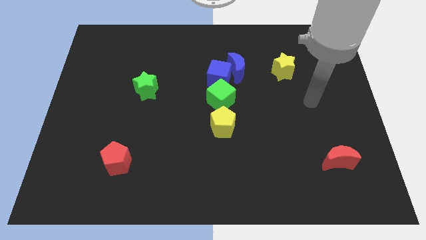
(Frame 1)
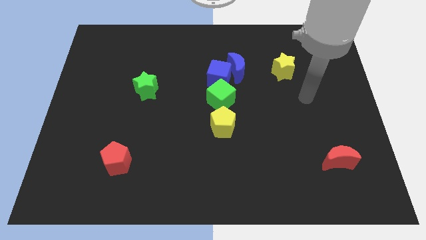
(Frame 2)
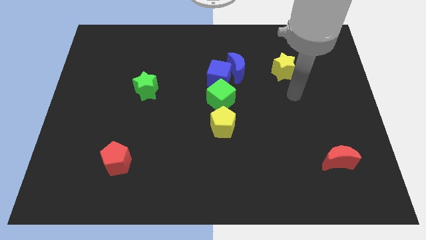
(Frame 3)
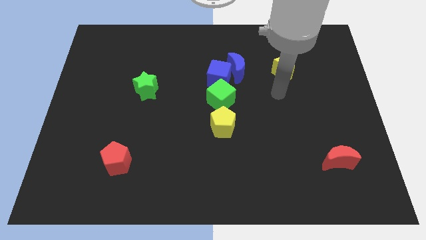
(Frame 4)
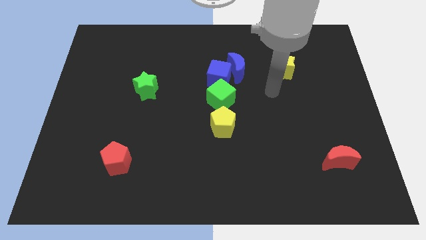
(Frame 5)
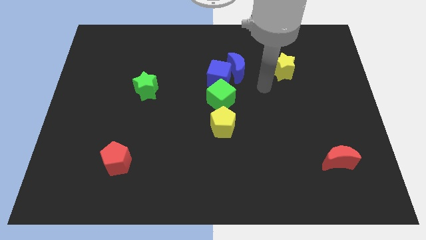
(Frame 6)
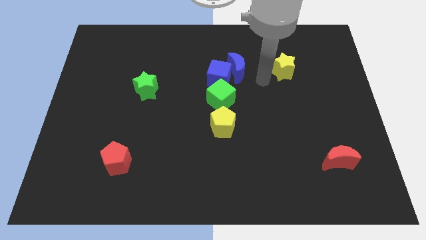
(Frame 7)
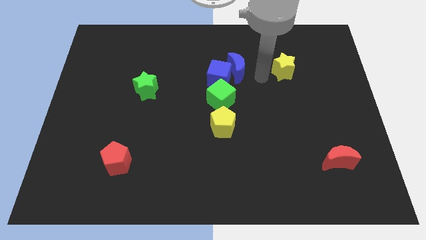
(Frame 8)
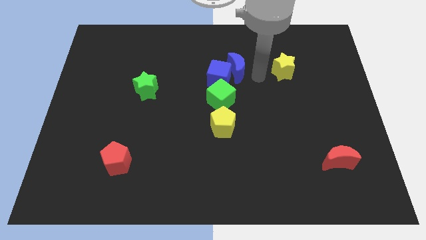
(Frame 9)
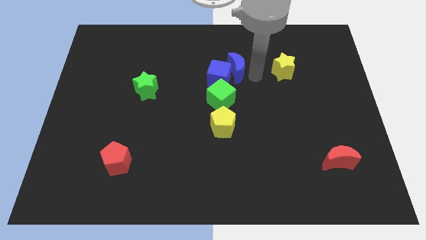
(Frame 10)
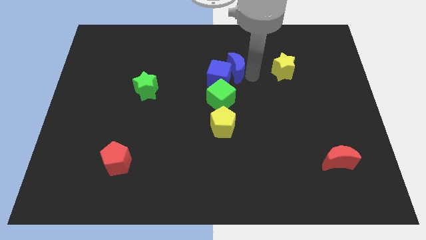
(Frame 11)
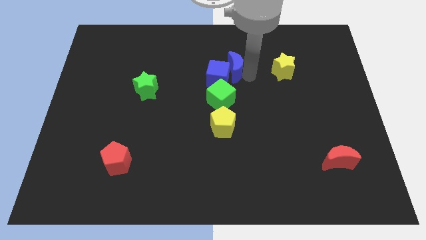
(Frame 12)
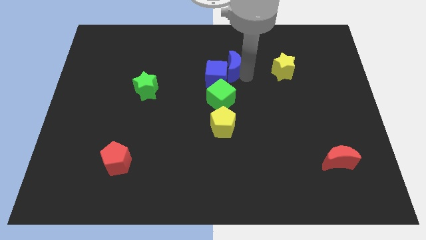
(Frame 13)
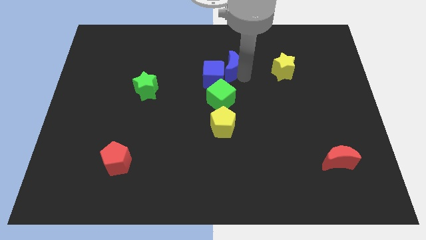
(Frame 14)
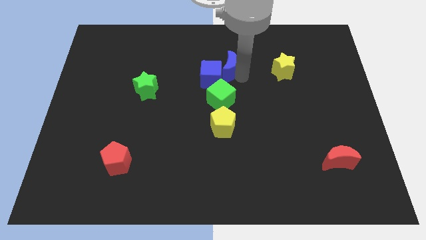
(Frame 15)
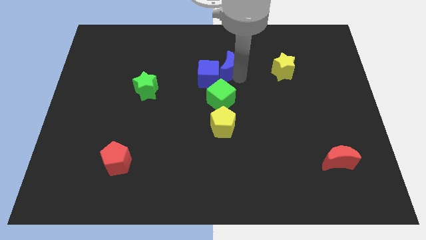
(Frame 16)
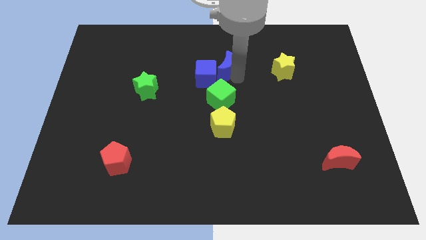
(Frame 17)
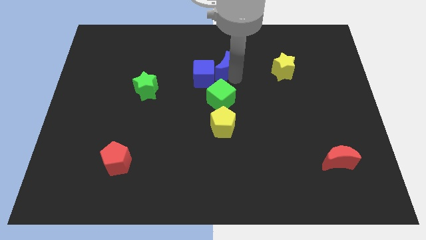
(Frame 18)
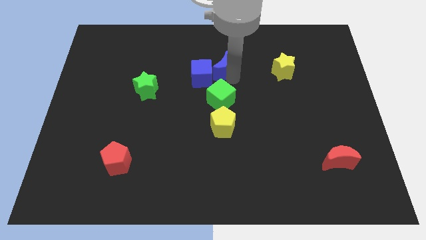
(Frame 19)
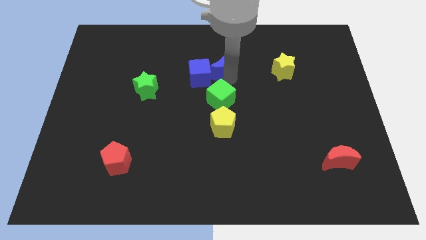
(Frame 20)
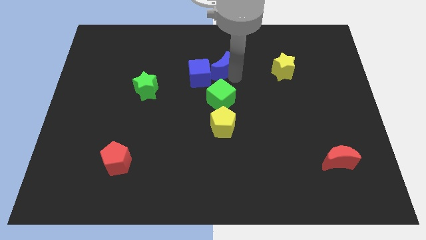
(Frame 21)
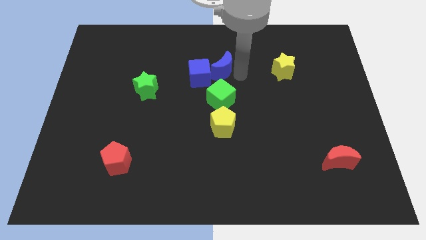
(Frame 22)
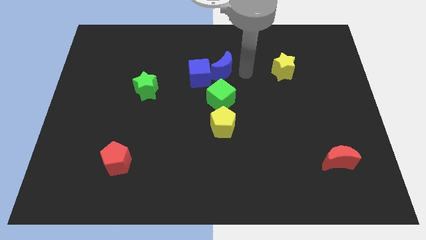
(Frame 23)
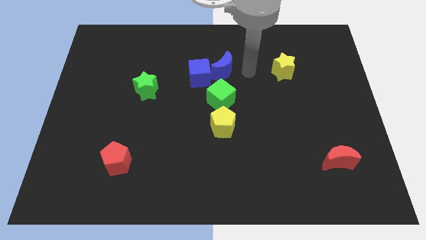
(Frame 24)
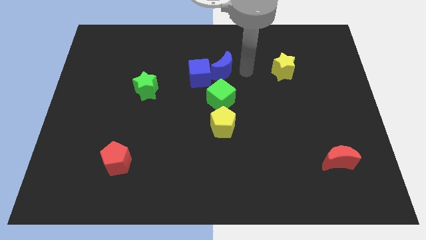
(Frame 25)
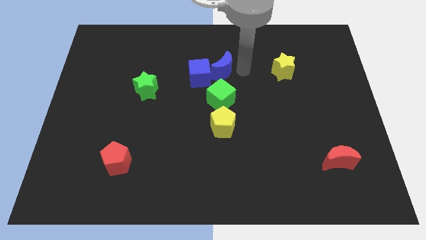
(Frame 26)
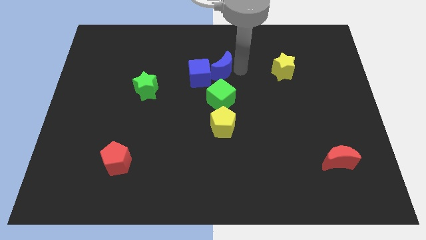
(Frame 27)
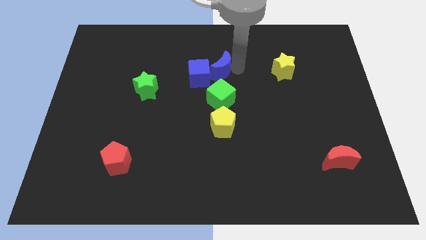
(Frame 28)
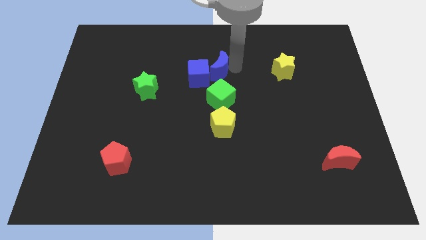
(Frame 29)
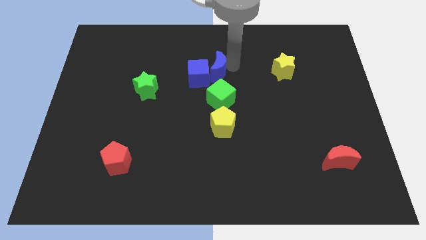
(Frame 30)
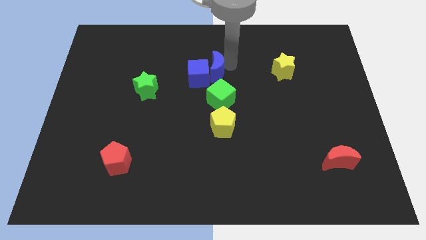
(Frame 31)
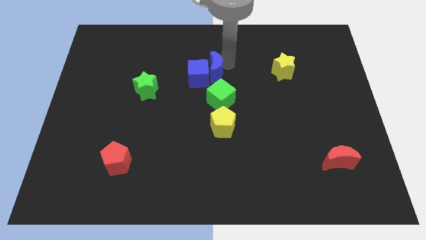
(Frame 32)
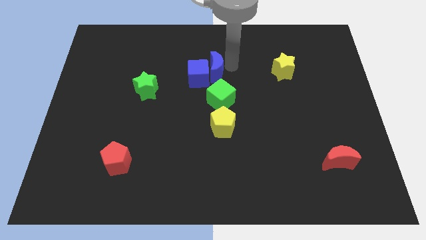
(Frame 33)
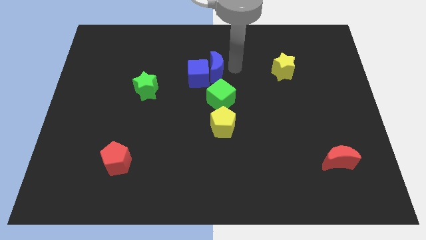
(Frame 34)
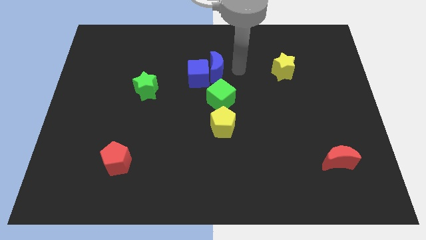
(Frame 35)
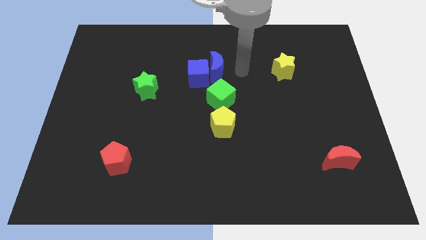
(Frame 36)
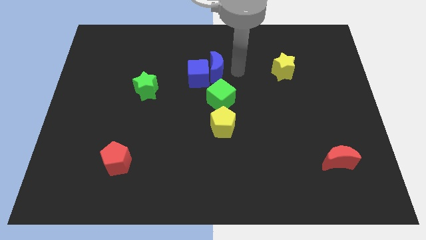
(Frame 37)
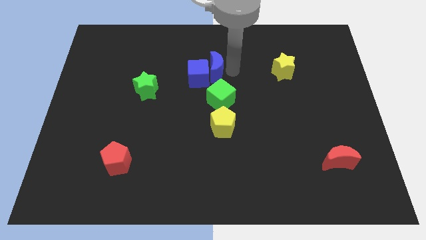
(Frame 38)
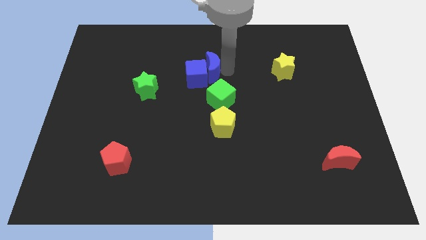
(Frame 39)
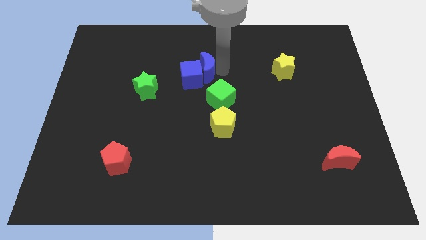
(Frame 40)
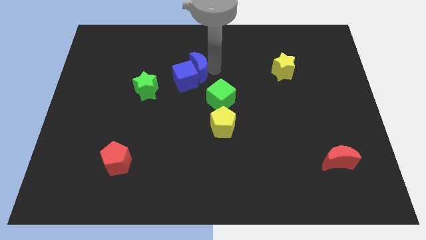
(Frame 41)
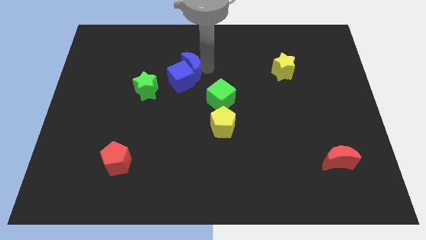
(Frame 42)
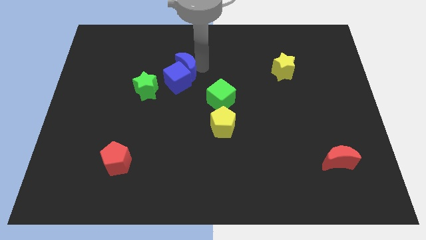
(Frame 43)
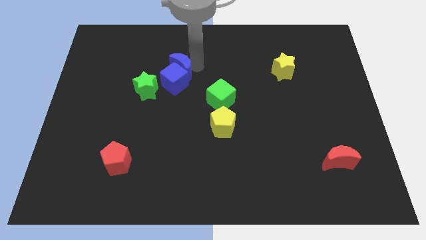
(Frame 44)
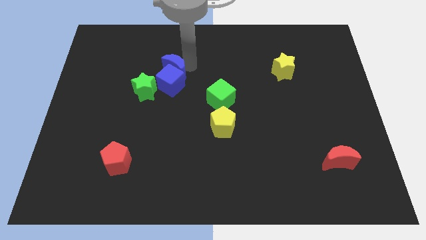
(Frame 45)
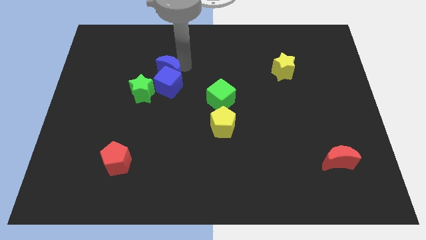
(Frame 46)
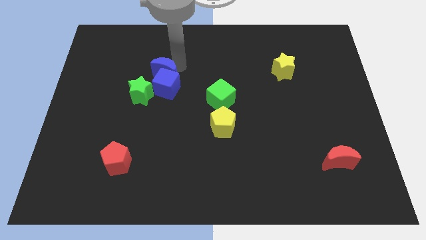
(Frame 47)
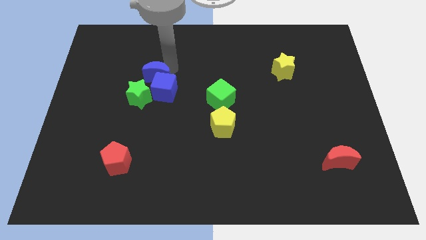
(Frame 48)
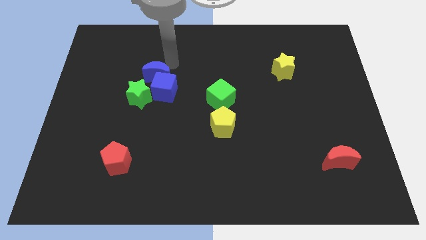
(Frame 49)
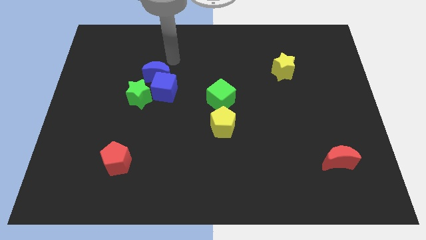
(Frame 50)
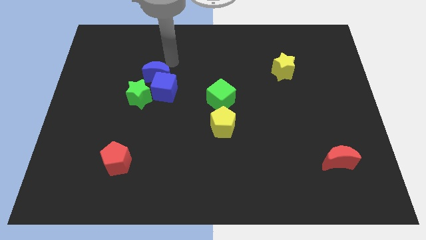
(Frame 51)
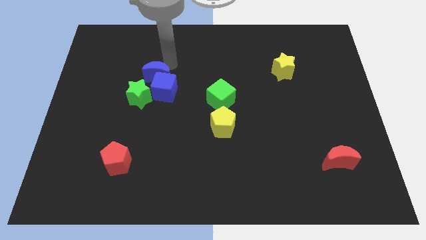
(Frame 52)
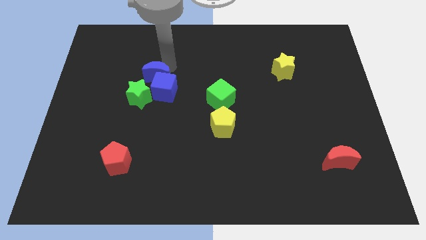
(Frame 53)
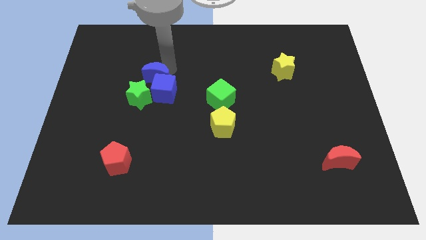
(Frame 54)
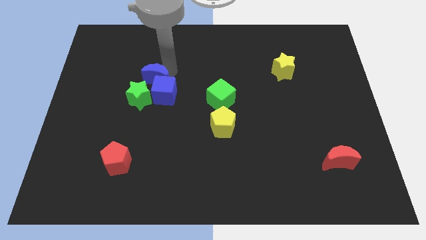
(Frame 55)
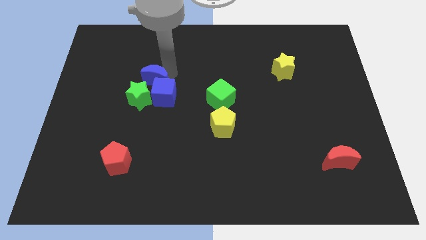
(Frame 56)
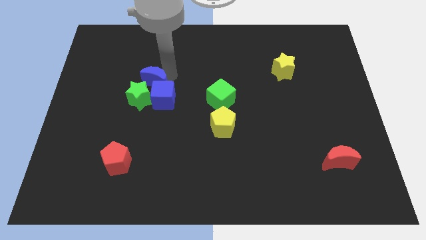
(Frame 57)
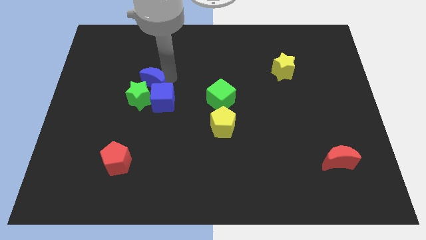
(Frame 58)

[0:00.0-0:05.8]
put the blue moon close to the green star

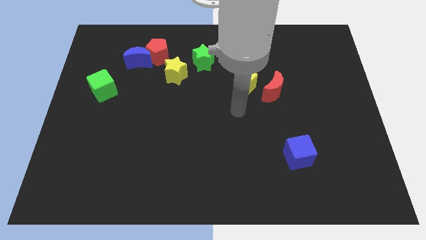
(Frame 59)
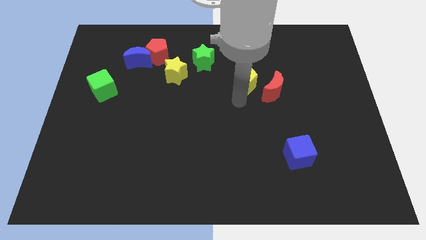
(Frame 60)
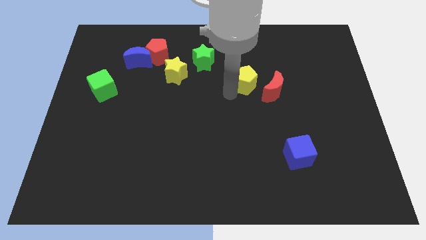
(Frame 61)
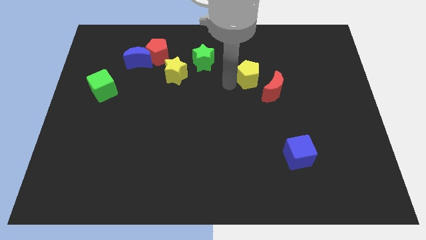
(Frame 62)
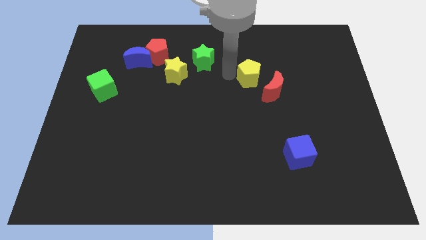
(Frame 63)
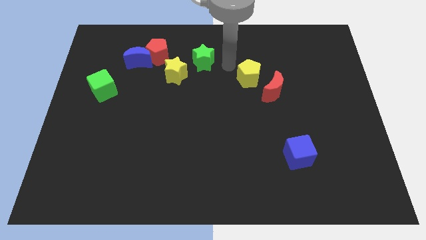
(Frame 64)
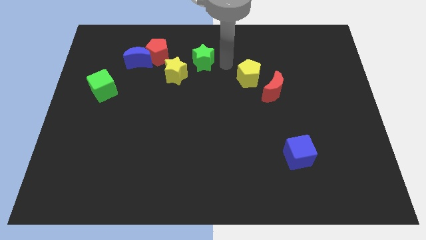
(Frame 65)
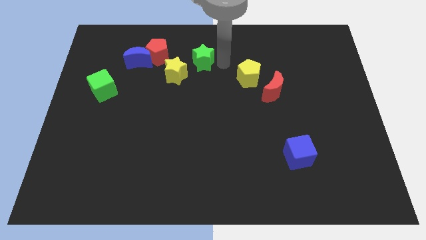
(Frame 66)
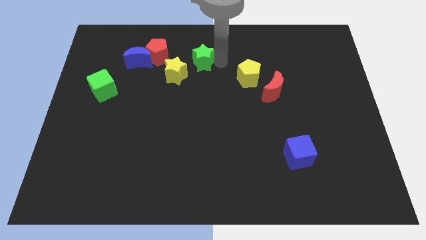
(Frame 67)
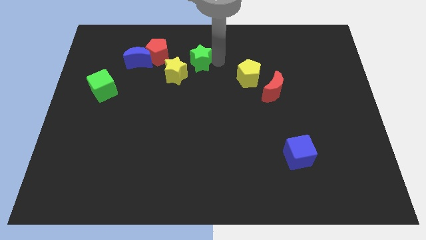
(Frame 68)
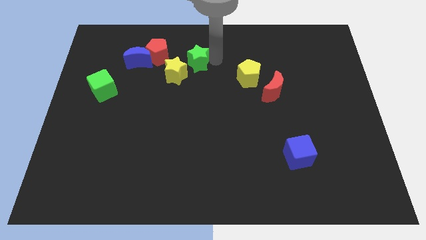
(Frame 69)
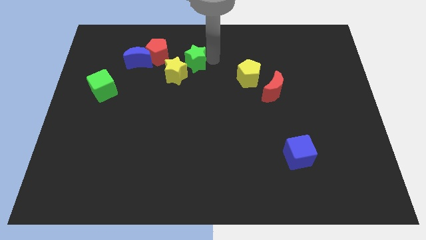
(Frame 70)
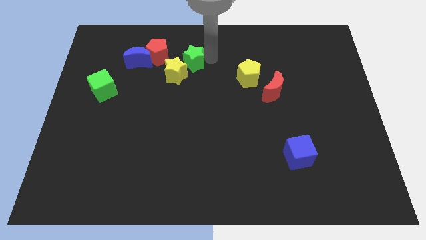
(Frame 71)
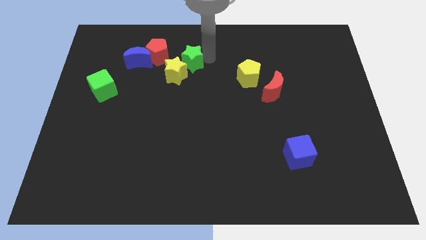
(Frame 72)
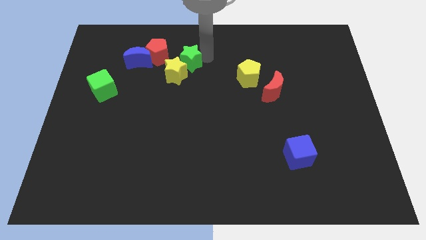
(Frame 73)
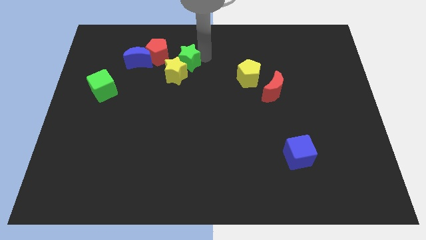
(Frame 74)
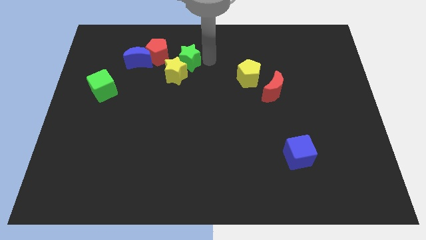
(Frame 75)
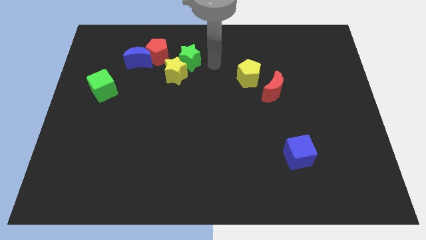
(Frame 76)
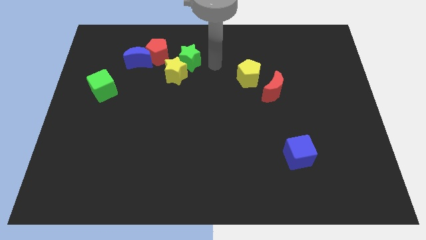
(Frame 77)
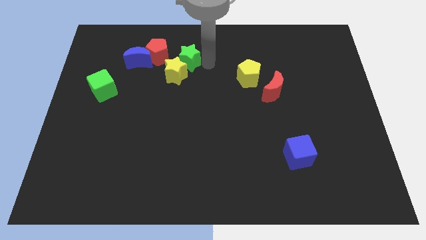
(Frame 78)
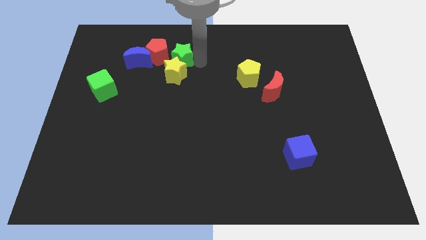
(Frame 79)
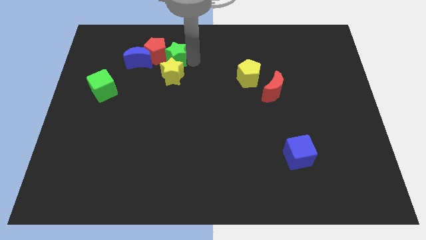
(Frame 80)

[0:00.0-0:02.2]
push the green star towards the red pentagon
